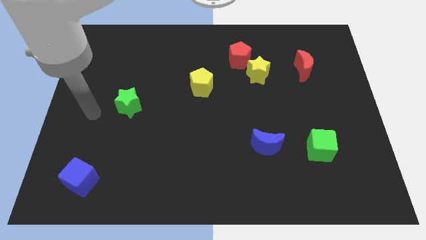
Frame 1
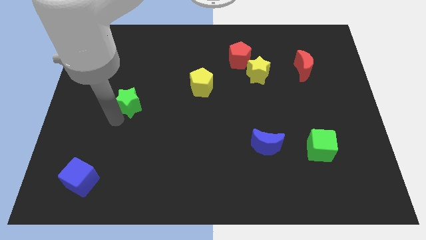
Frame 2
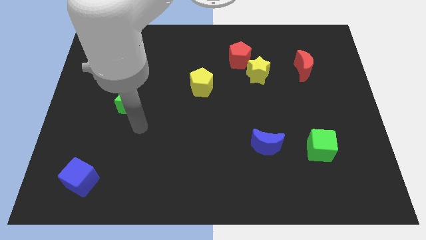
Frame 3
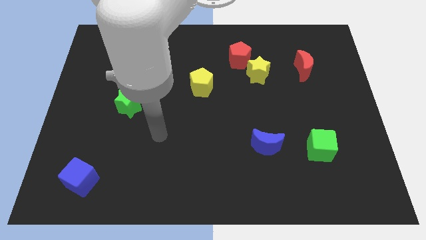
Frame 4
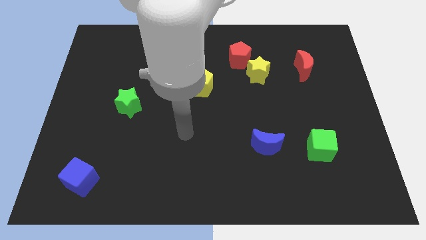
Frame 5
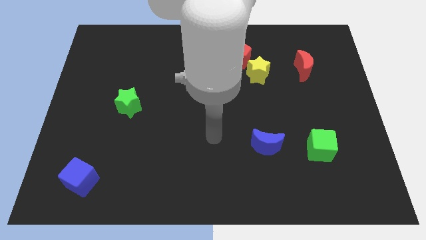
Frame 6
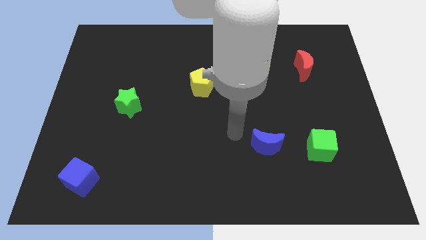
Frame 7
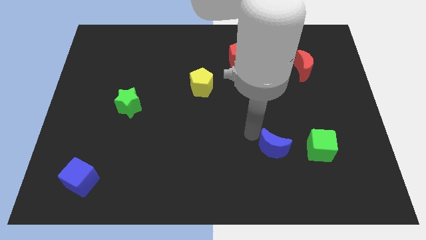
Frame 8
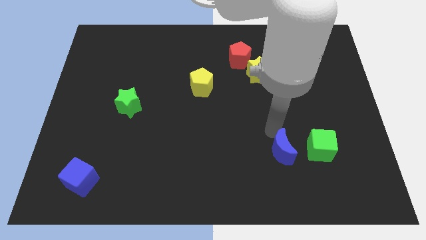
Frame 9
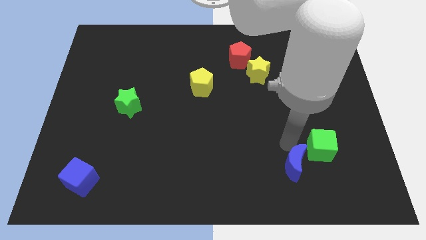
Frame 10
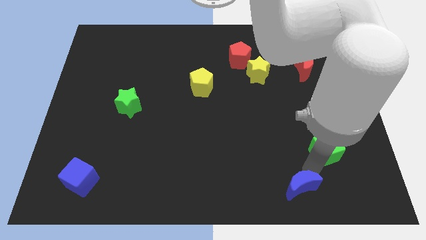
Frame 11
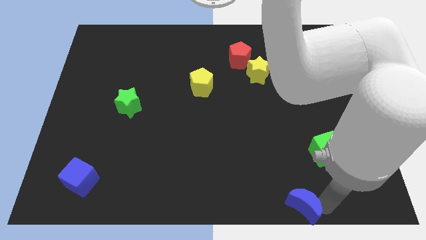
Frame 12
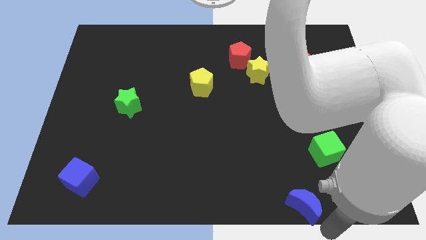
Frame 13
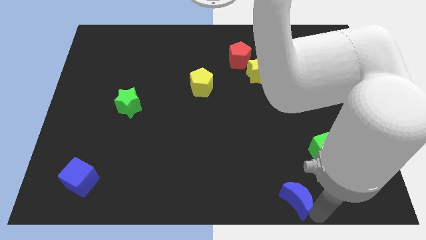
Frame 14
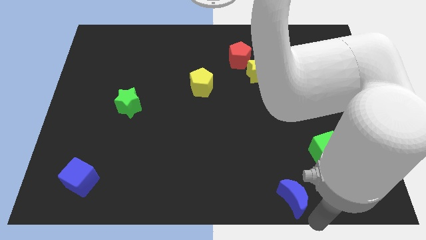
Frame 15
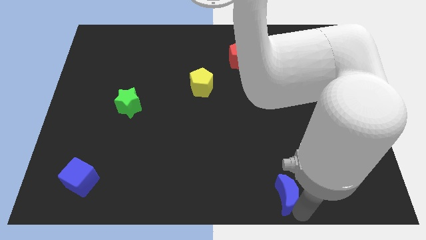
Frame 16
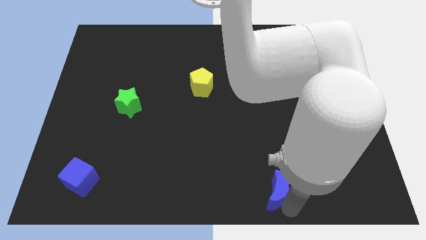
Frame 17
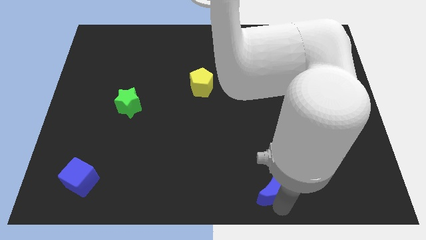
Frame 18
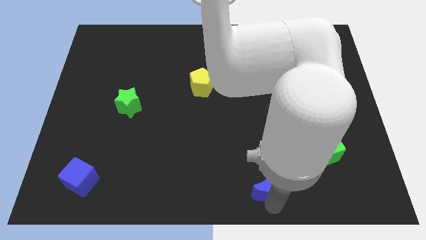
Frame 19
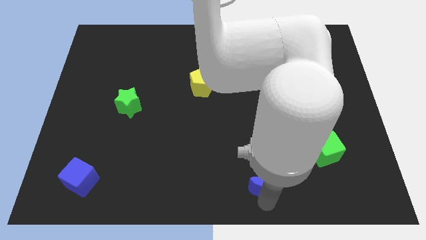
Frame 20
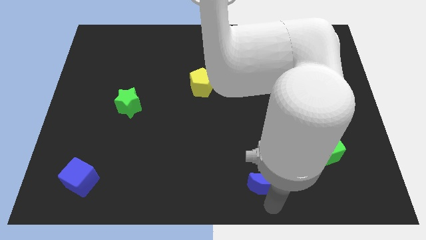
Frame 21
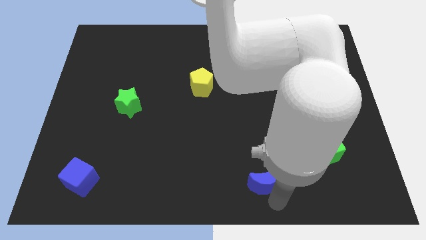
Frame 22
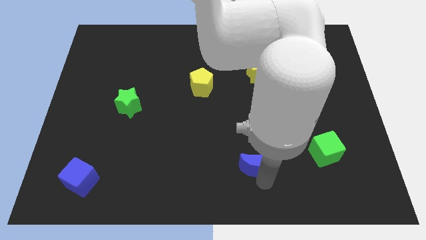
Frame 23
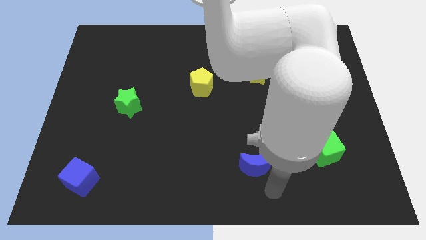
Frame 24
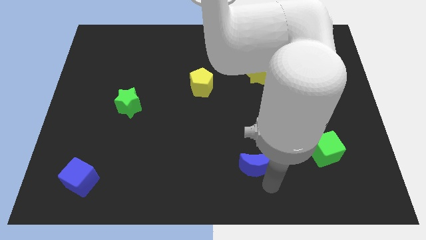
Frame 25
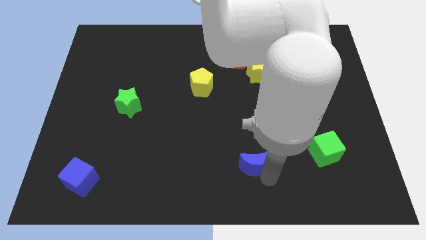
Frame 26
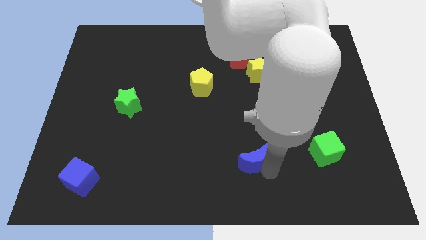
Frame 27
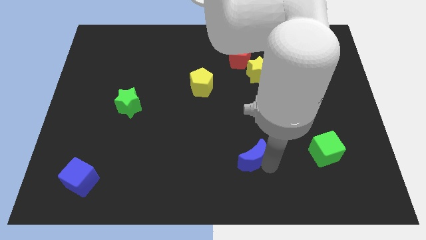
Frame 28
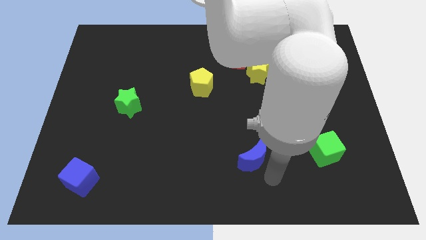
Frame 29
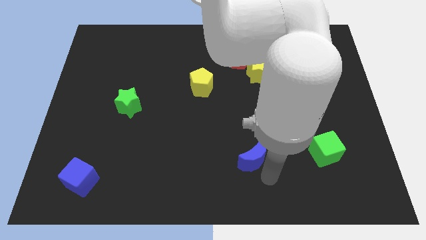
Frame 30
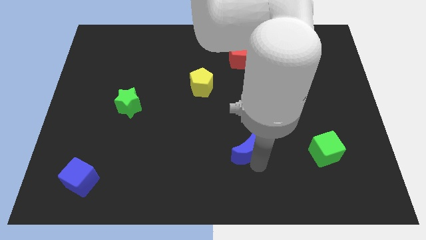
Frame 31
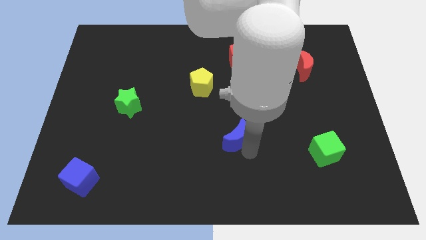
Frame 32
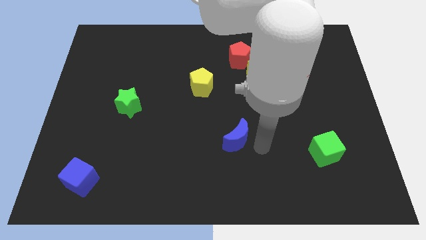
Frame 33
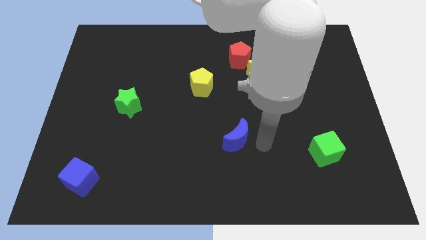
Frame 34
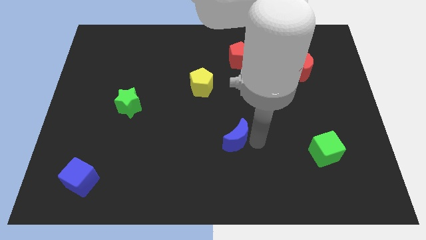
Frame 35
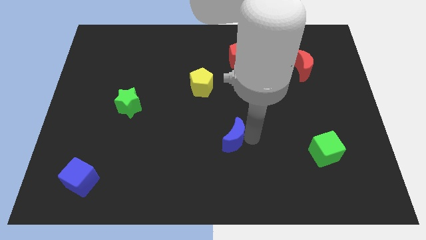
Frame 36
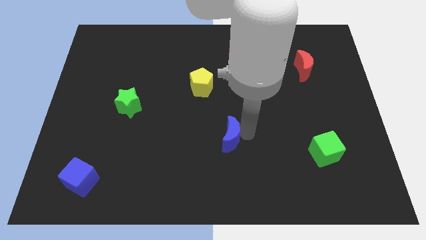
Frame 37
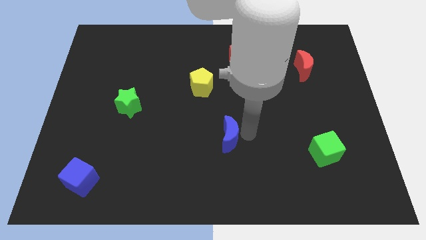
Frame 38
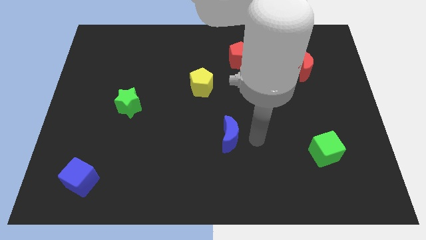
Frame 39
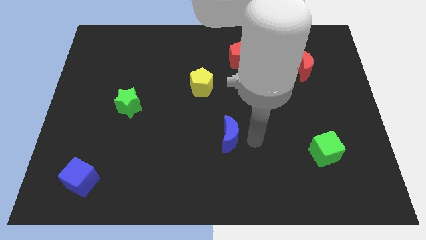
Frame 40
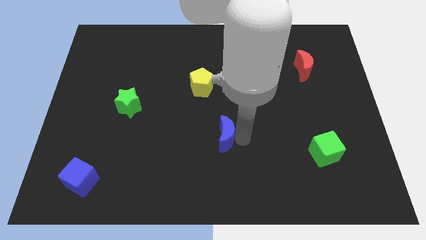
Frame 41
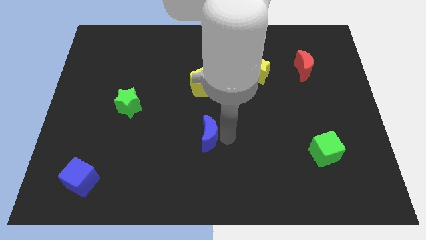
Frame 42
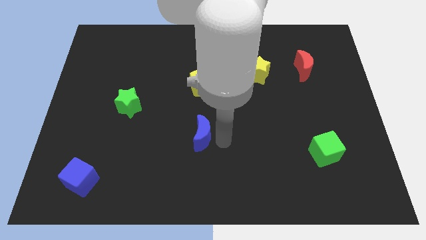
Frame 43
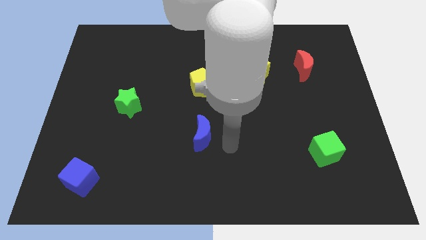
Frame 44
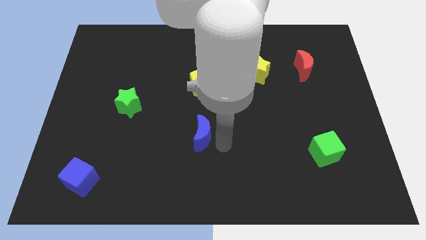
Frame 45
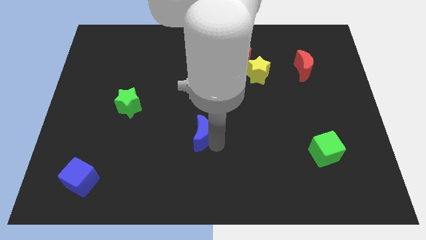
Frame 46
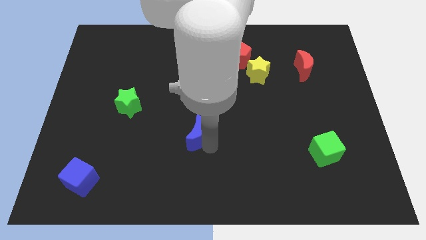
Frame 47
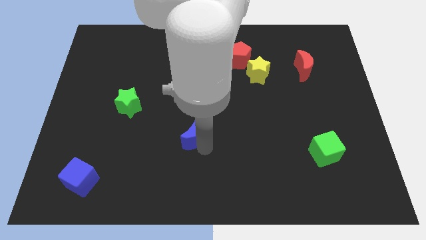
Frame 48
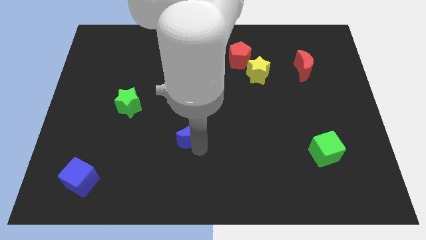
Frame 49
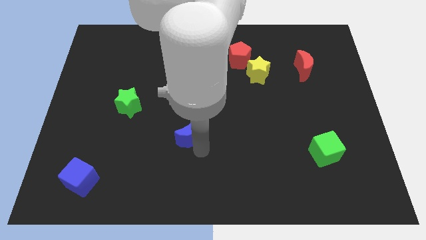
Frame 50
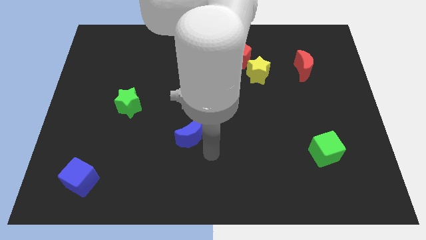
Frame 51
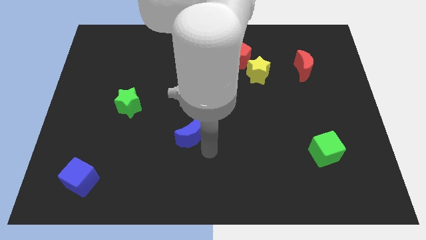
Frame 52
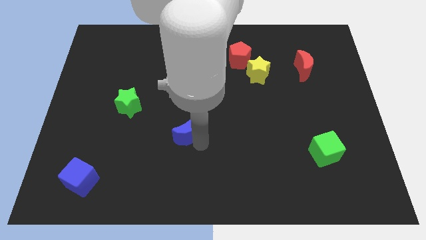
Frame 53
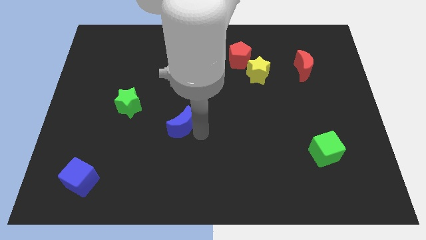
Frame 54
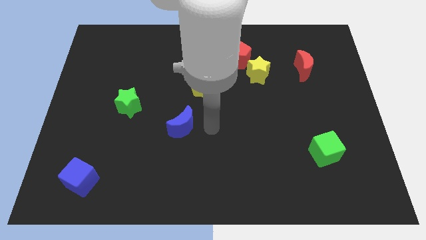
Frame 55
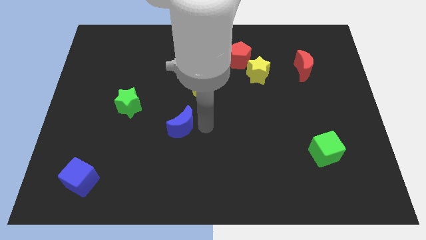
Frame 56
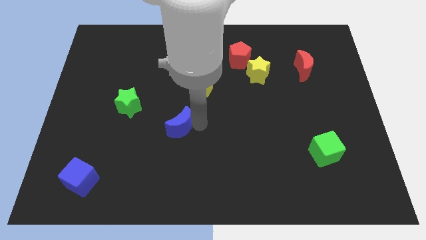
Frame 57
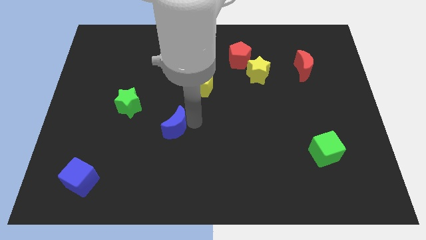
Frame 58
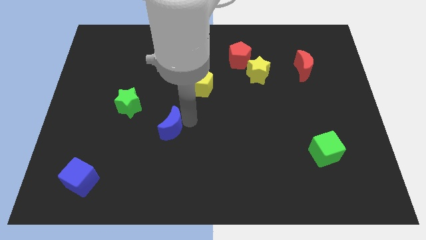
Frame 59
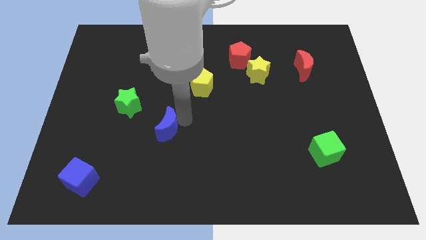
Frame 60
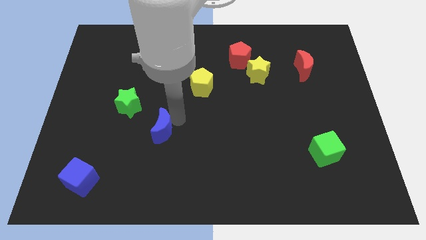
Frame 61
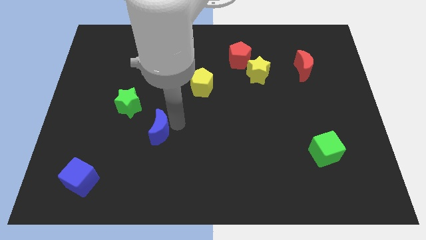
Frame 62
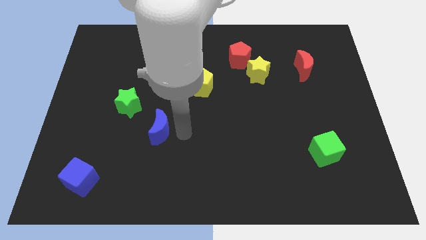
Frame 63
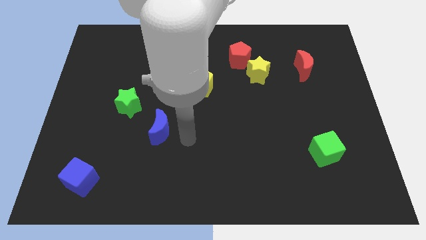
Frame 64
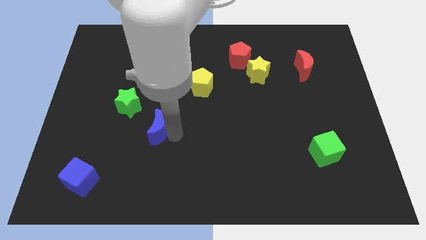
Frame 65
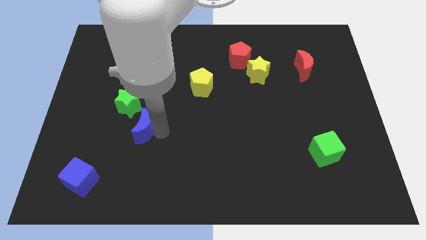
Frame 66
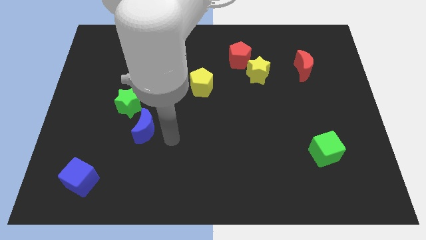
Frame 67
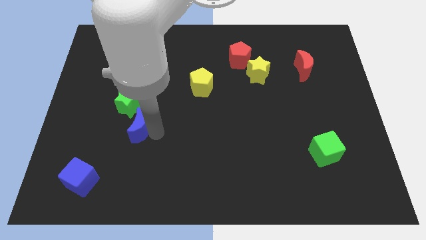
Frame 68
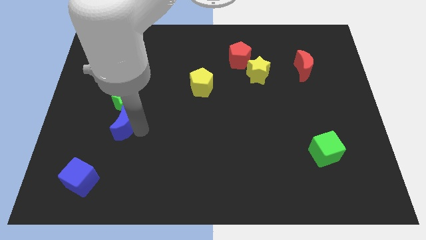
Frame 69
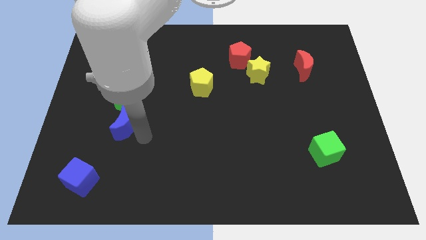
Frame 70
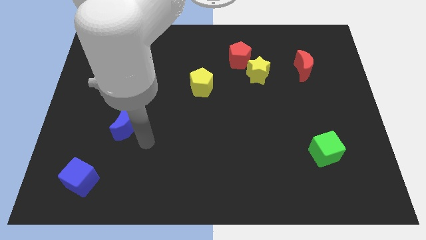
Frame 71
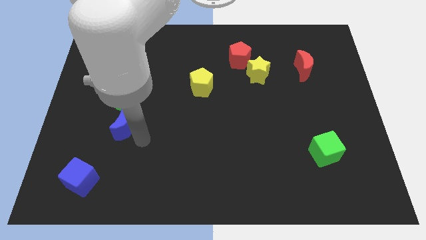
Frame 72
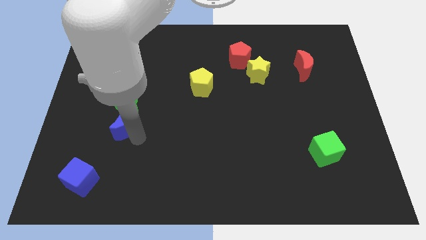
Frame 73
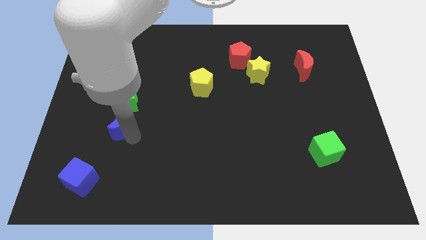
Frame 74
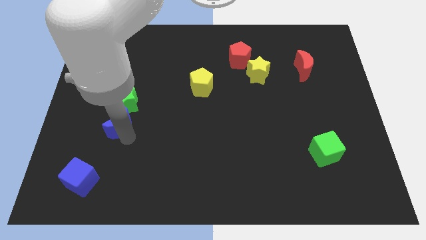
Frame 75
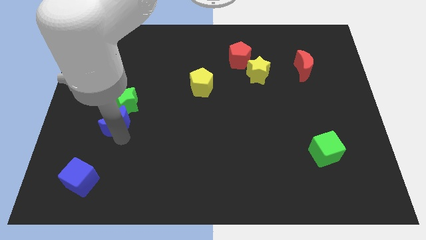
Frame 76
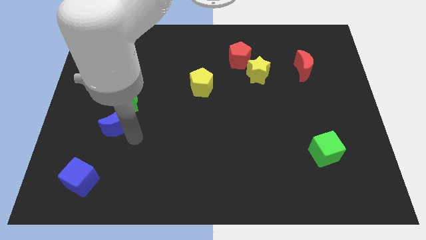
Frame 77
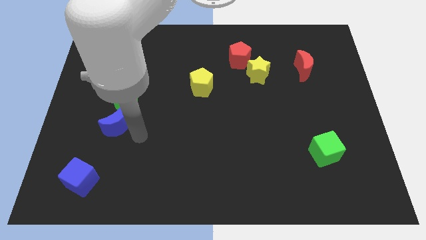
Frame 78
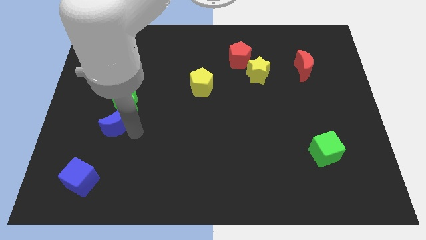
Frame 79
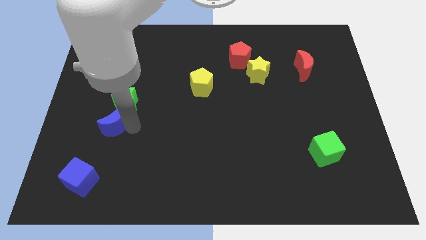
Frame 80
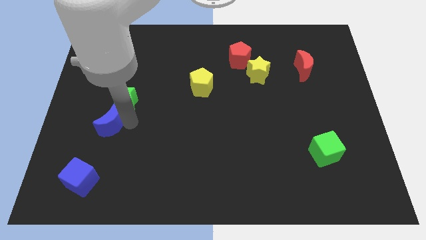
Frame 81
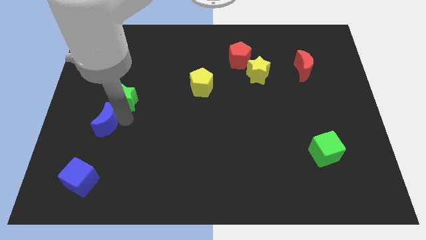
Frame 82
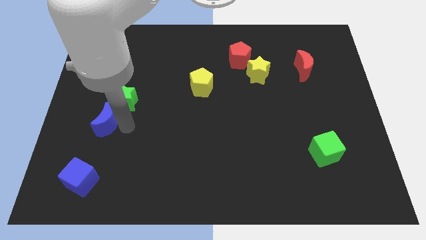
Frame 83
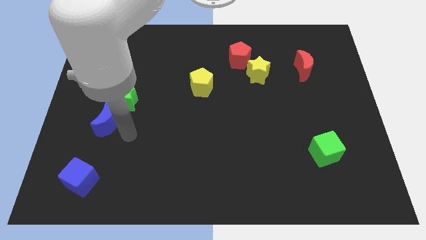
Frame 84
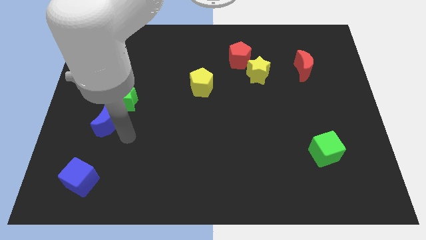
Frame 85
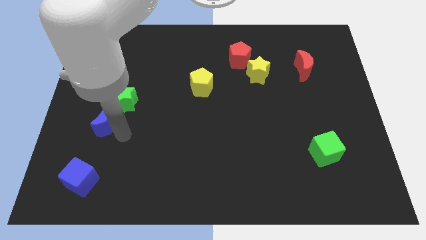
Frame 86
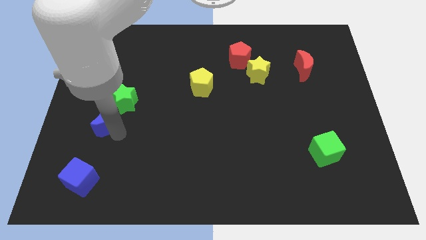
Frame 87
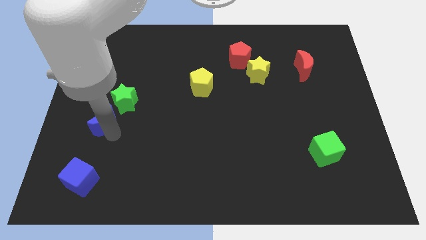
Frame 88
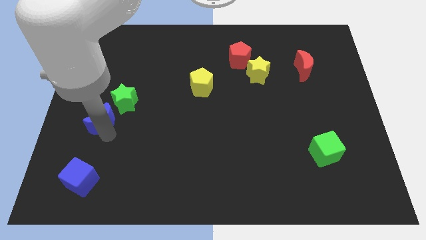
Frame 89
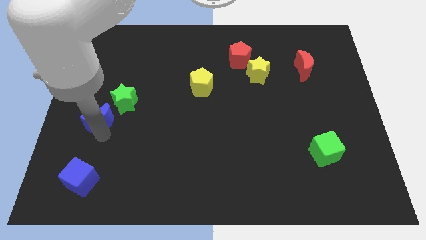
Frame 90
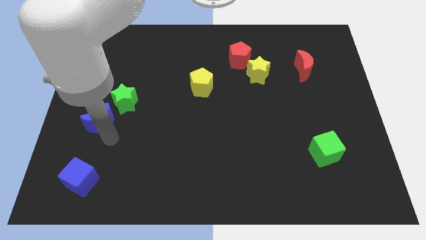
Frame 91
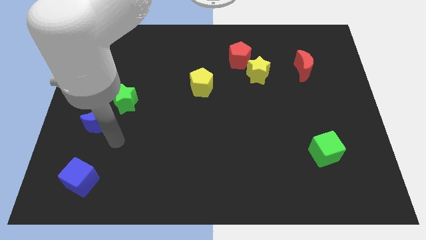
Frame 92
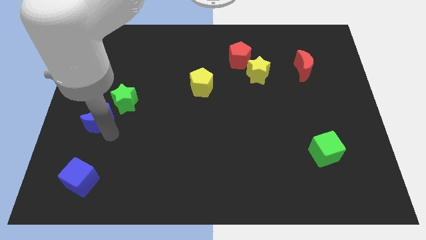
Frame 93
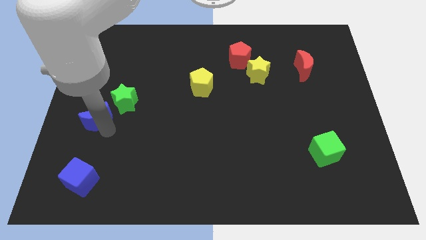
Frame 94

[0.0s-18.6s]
slide the blue moon to the left side of the board
